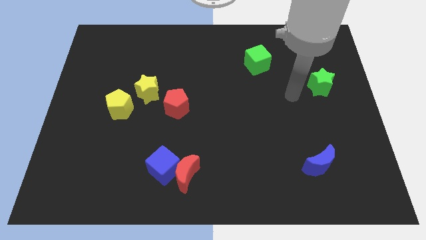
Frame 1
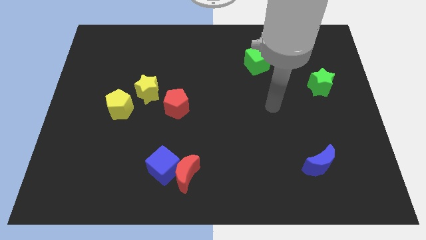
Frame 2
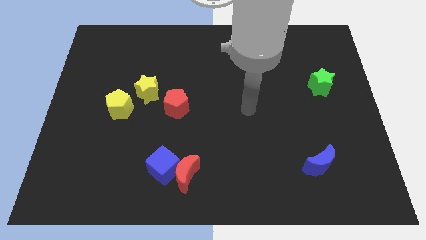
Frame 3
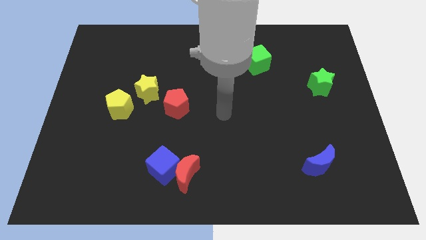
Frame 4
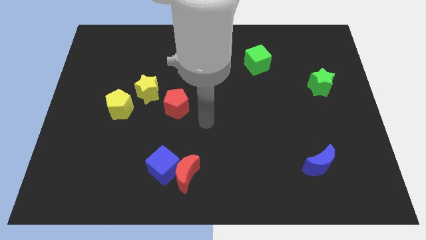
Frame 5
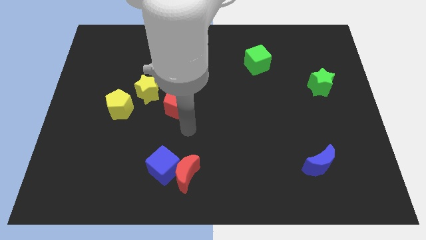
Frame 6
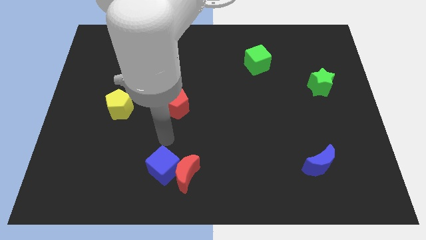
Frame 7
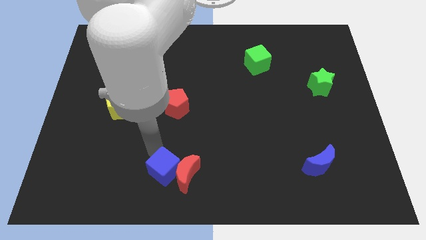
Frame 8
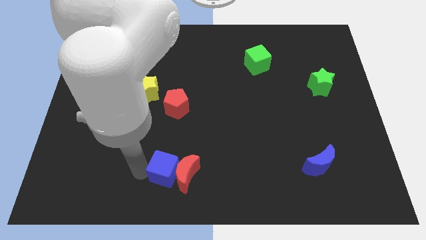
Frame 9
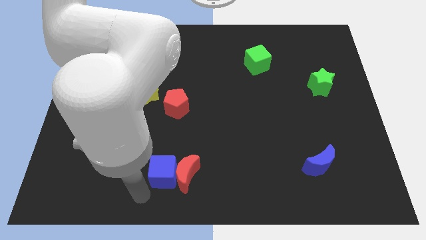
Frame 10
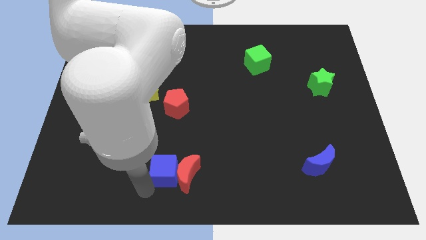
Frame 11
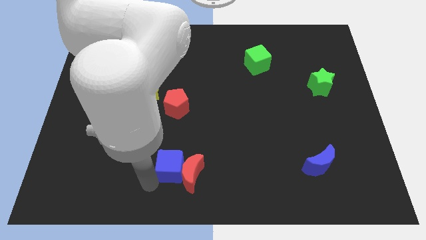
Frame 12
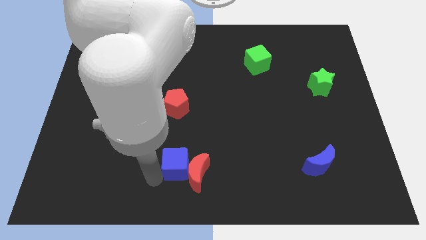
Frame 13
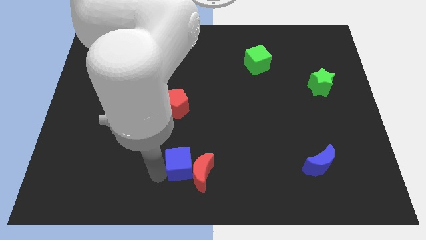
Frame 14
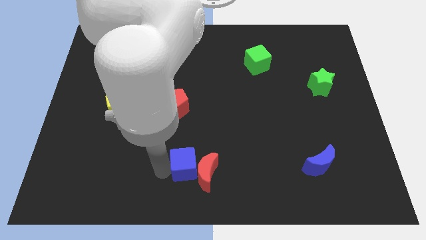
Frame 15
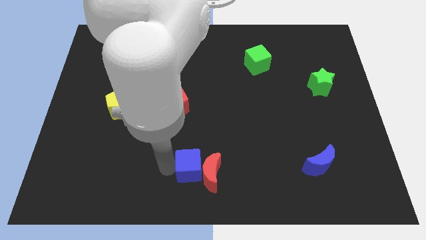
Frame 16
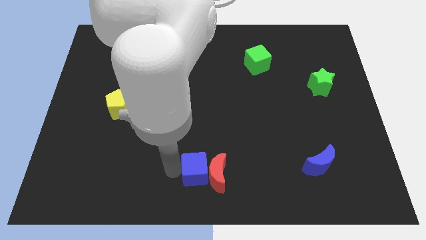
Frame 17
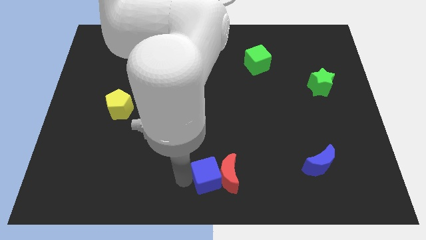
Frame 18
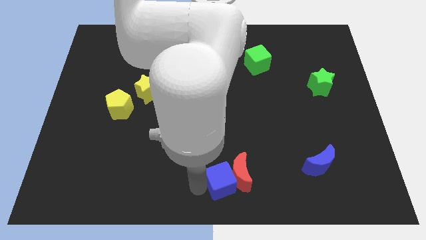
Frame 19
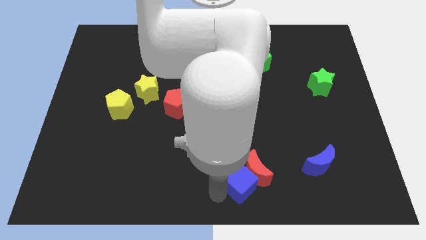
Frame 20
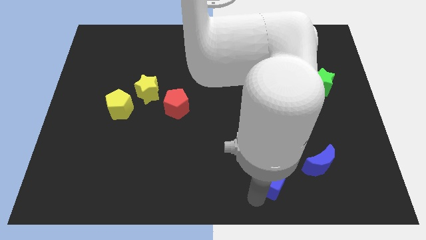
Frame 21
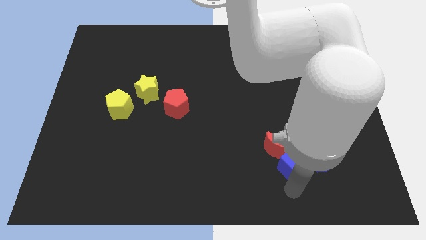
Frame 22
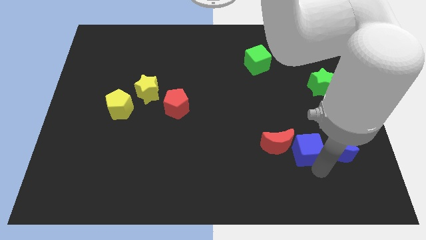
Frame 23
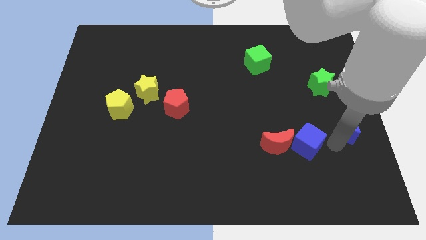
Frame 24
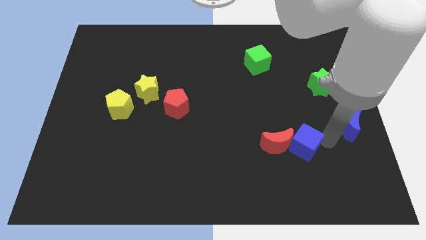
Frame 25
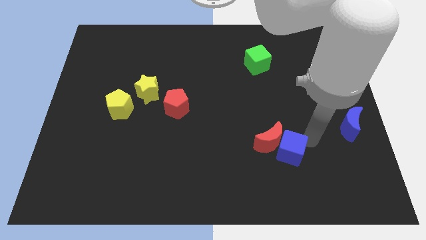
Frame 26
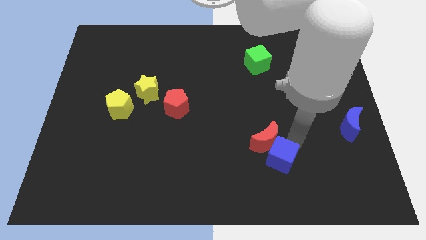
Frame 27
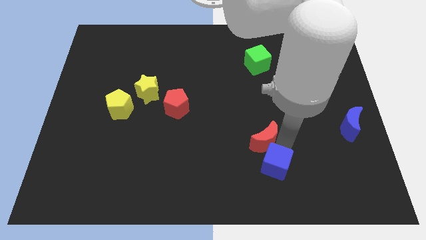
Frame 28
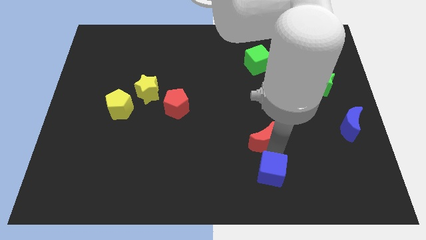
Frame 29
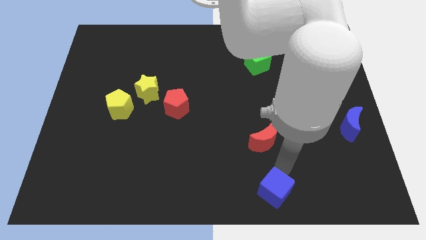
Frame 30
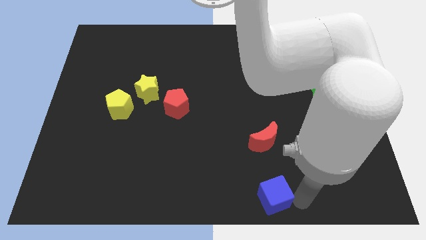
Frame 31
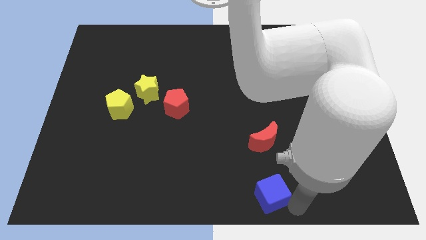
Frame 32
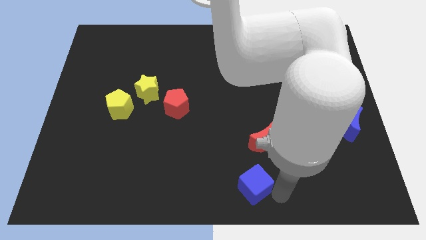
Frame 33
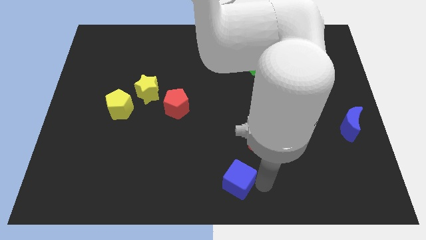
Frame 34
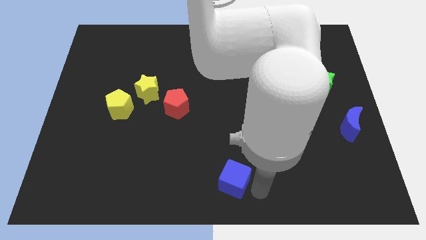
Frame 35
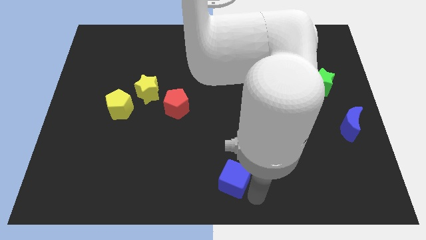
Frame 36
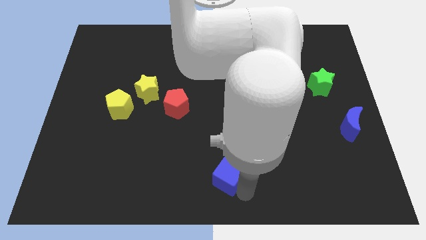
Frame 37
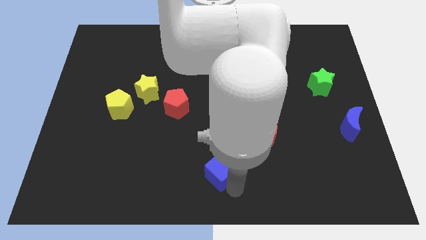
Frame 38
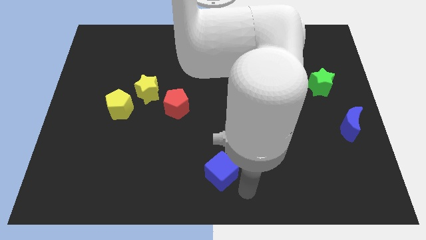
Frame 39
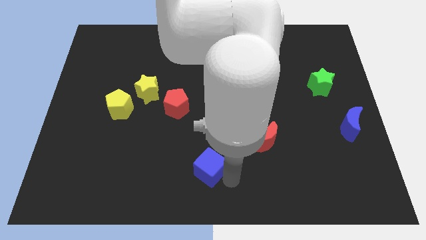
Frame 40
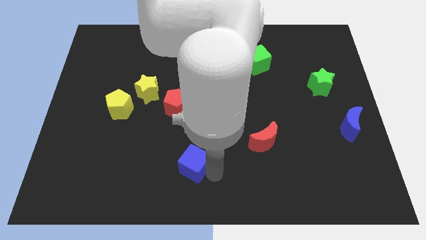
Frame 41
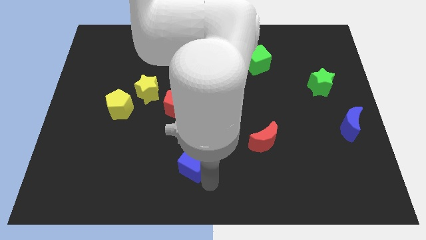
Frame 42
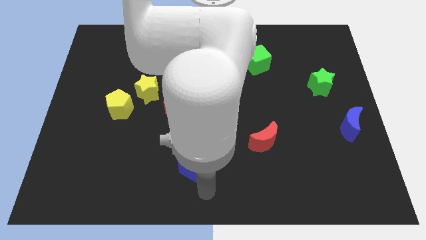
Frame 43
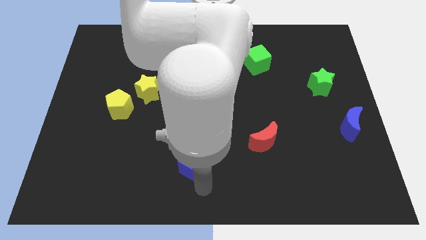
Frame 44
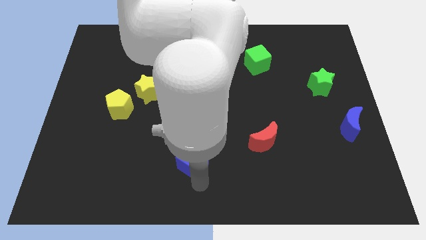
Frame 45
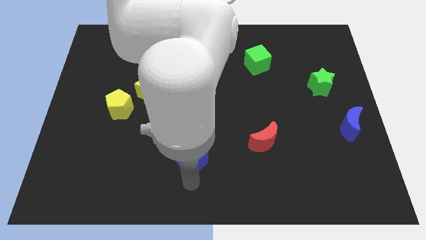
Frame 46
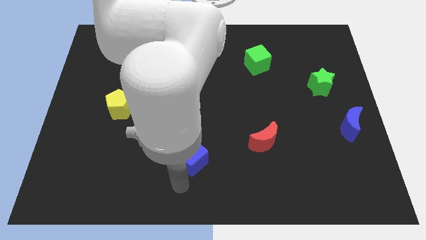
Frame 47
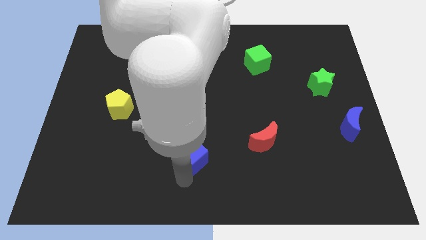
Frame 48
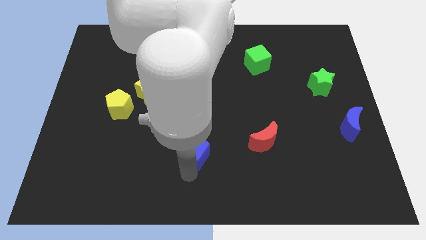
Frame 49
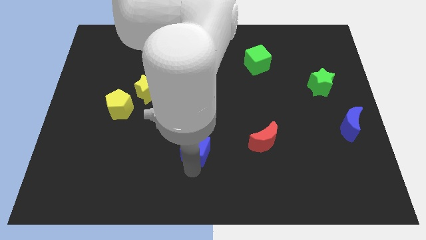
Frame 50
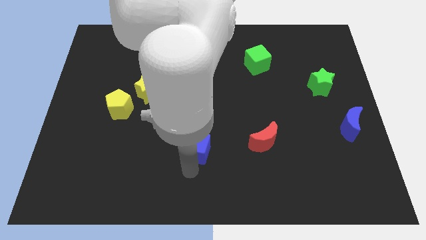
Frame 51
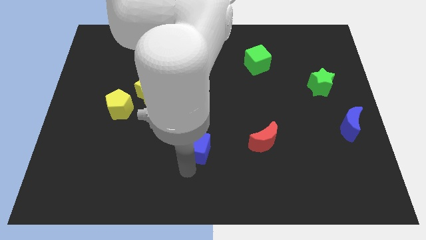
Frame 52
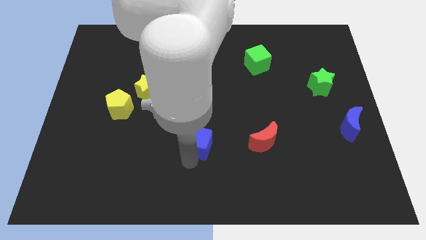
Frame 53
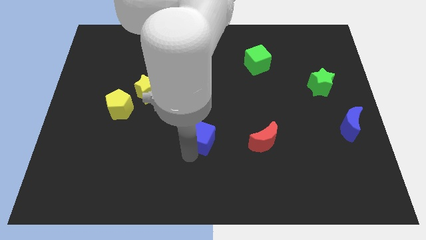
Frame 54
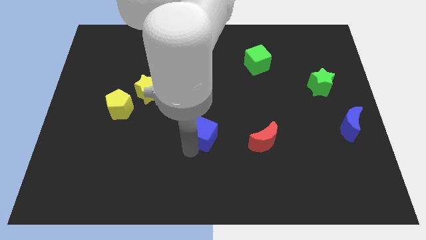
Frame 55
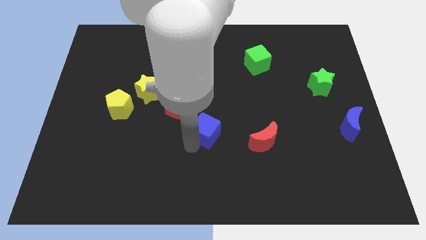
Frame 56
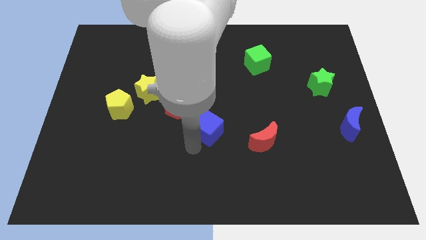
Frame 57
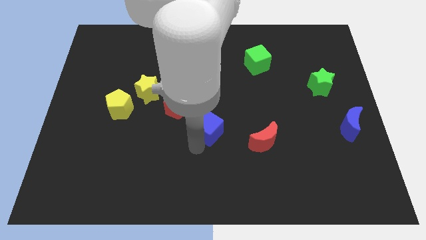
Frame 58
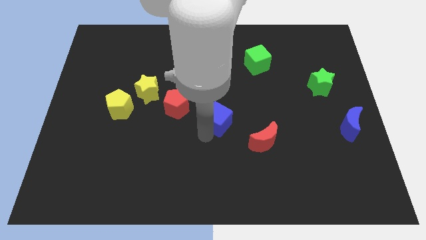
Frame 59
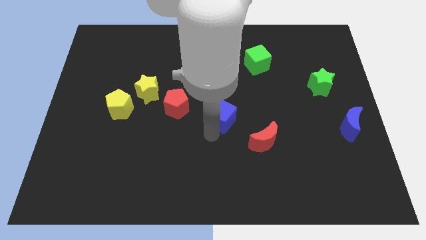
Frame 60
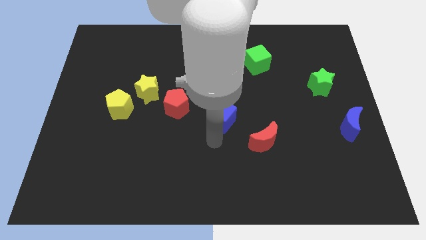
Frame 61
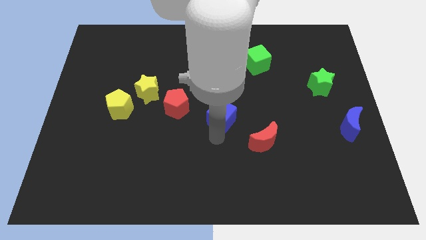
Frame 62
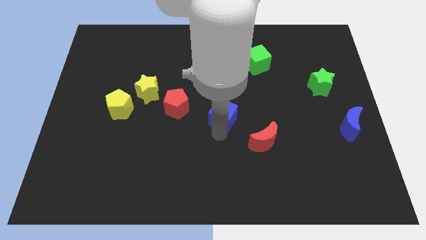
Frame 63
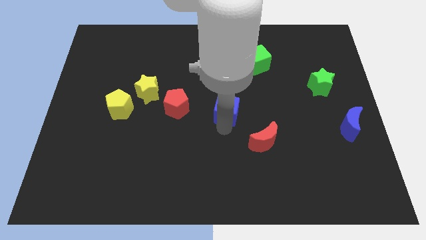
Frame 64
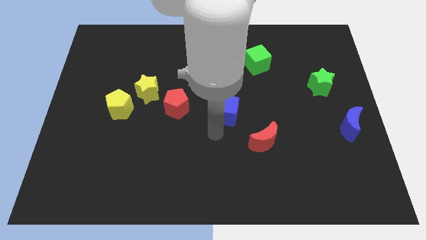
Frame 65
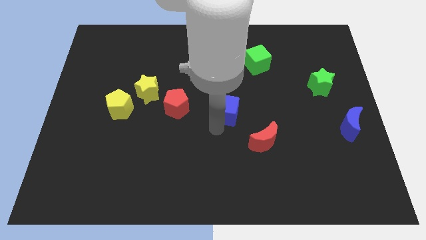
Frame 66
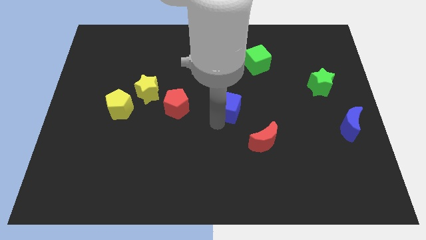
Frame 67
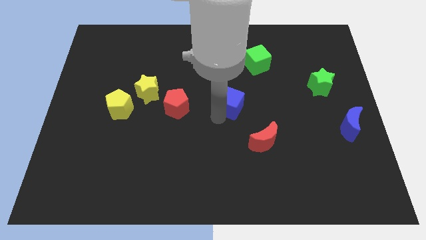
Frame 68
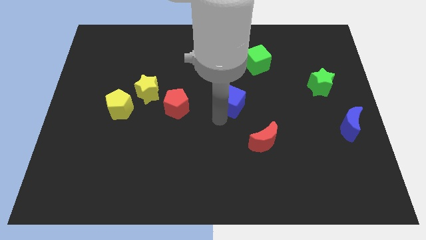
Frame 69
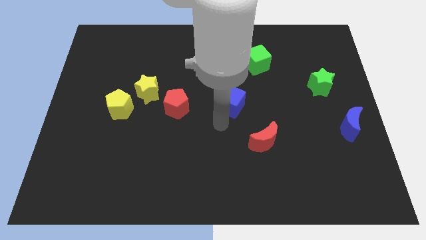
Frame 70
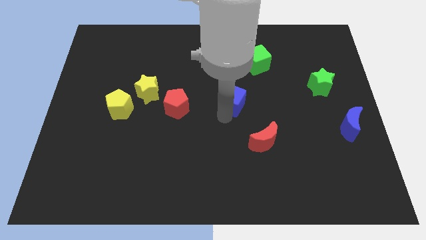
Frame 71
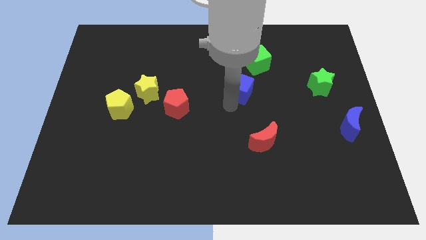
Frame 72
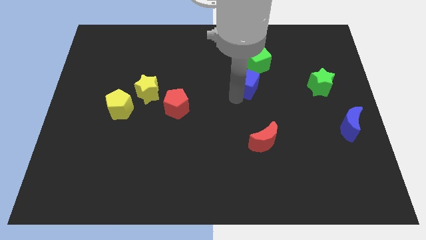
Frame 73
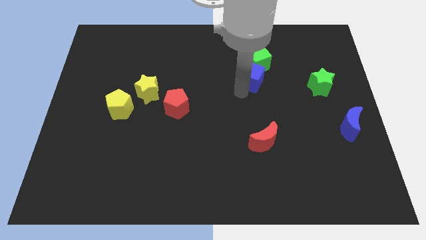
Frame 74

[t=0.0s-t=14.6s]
push the blue cube to the green cube
